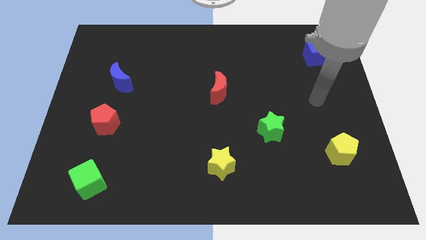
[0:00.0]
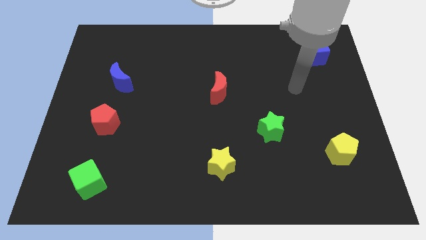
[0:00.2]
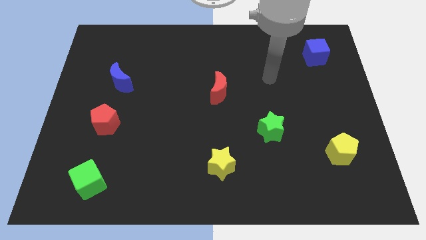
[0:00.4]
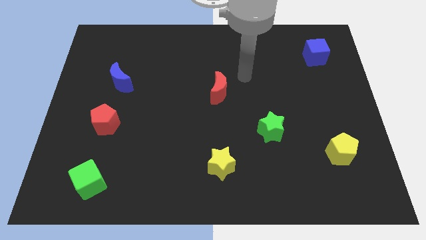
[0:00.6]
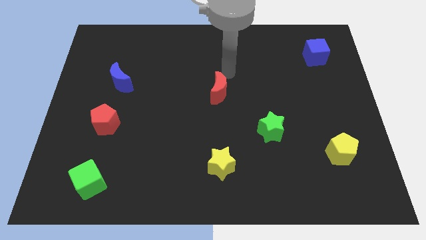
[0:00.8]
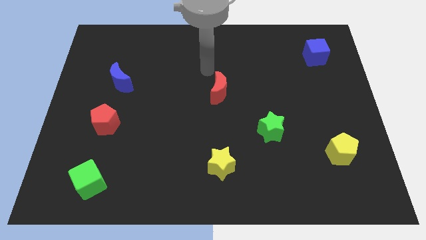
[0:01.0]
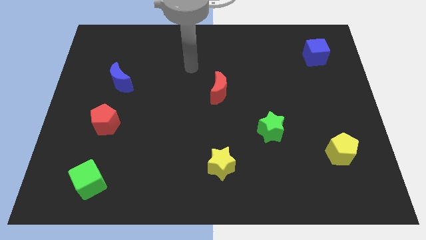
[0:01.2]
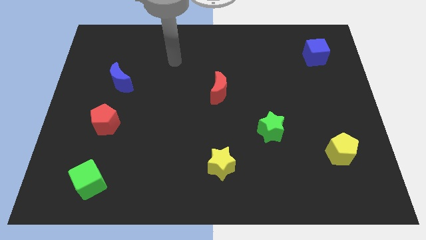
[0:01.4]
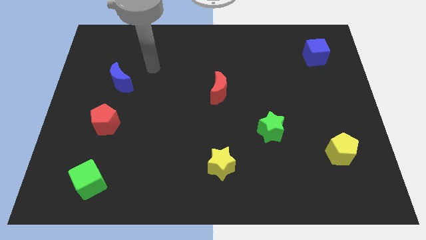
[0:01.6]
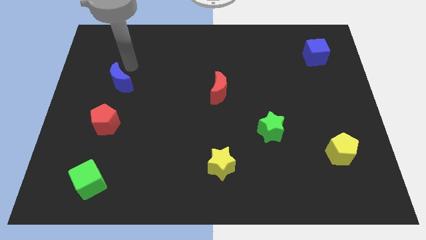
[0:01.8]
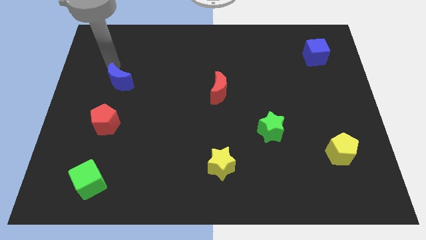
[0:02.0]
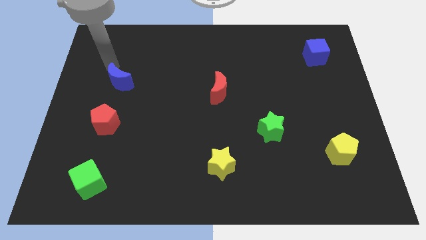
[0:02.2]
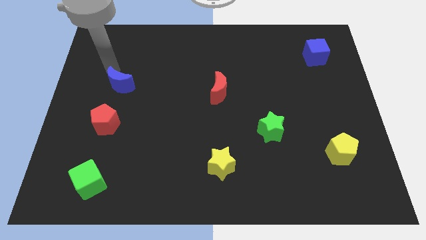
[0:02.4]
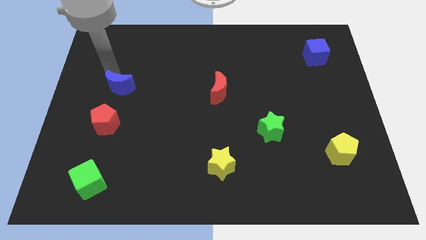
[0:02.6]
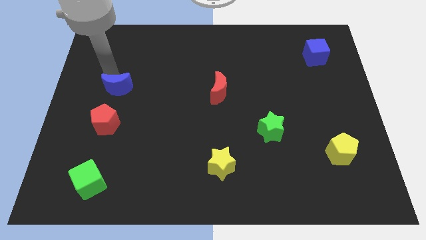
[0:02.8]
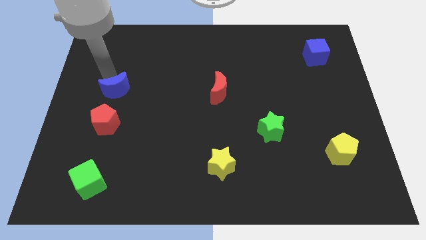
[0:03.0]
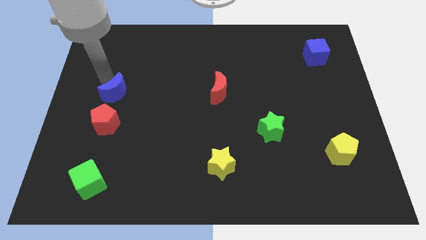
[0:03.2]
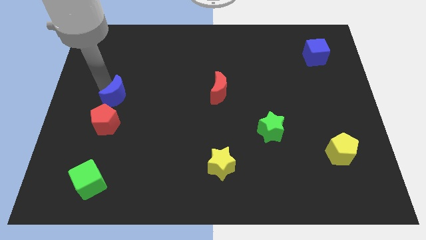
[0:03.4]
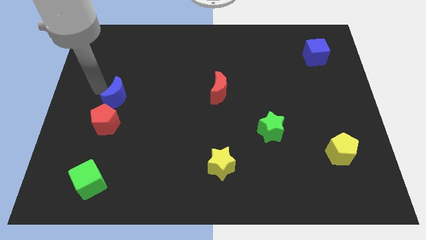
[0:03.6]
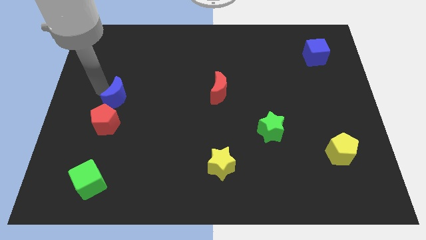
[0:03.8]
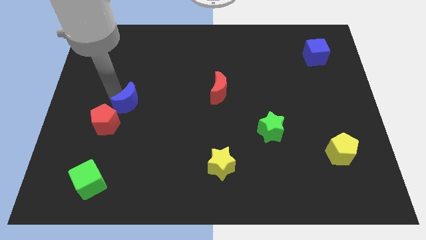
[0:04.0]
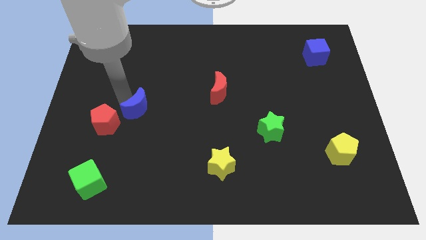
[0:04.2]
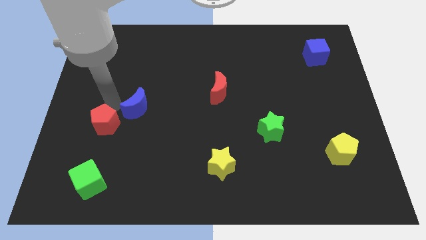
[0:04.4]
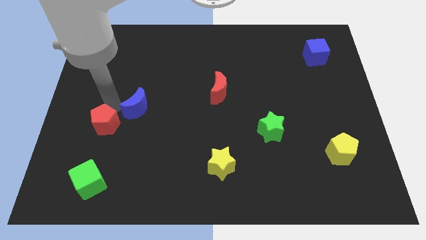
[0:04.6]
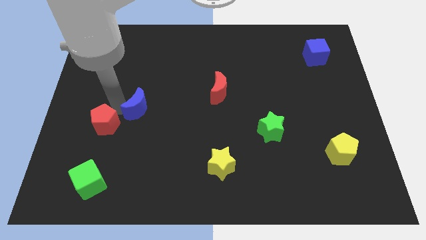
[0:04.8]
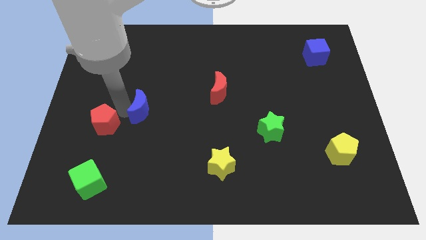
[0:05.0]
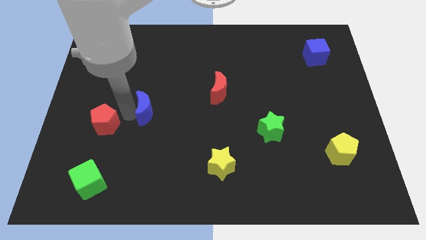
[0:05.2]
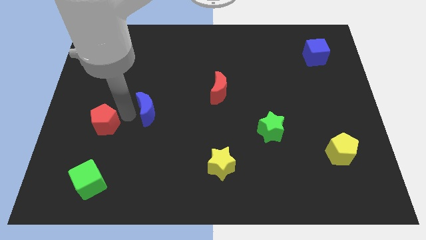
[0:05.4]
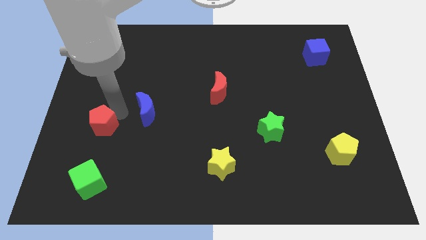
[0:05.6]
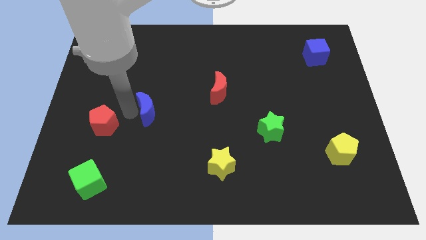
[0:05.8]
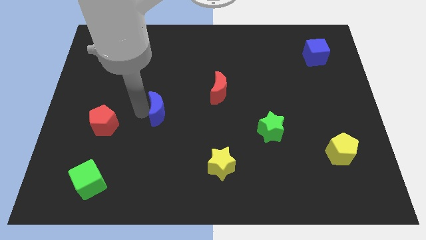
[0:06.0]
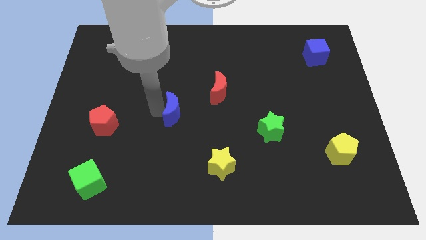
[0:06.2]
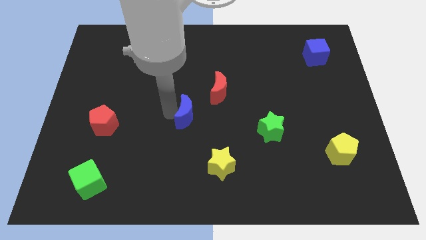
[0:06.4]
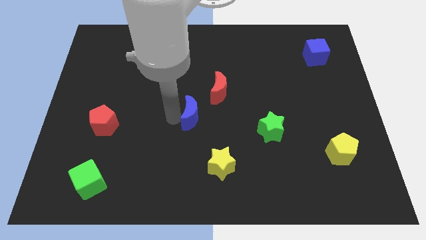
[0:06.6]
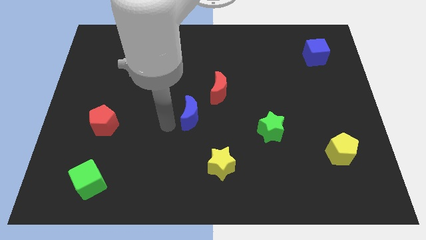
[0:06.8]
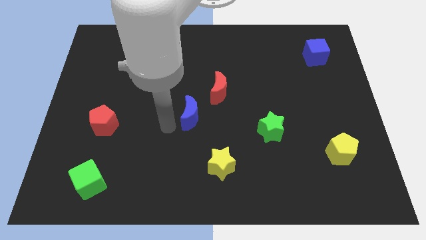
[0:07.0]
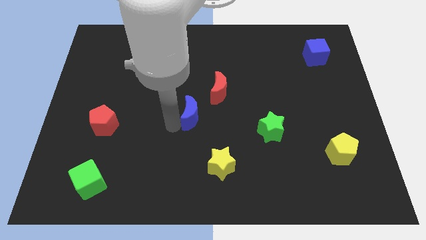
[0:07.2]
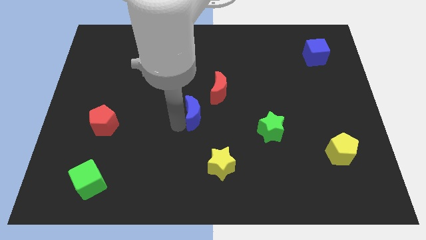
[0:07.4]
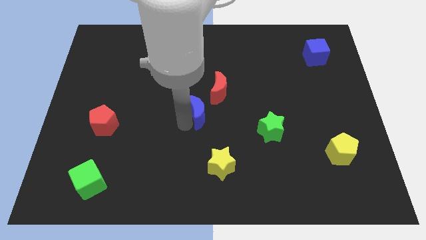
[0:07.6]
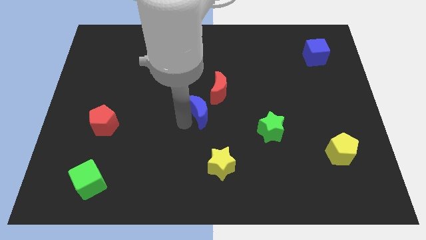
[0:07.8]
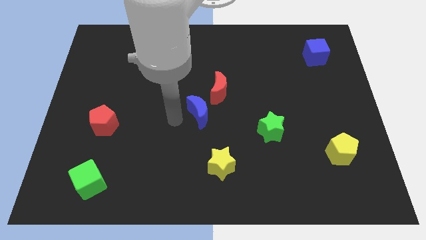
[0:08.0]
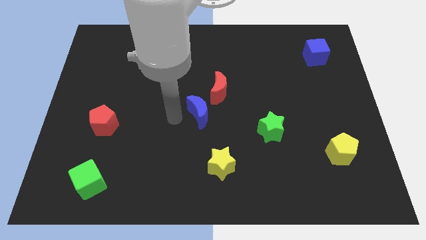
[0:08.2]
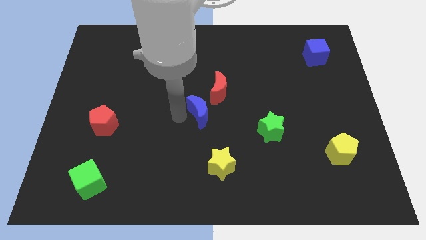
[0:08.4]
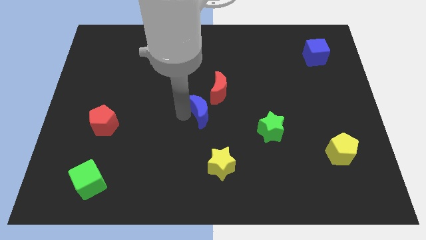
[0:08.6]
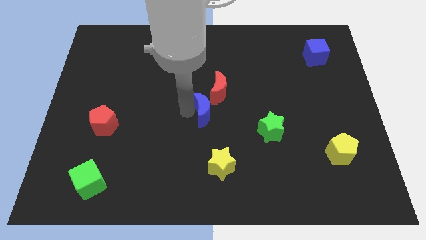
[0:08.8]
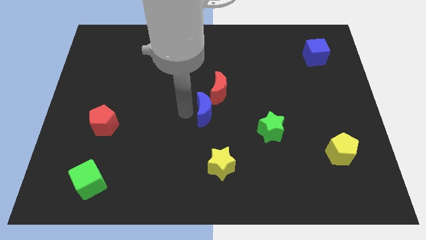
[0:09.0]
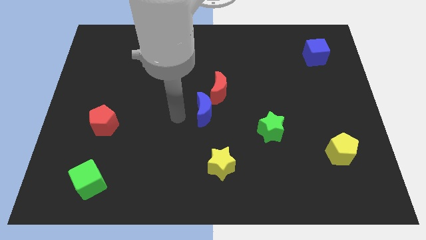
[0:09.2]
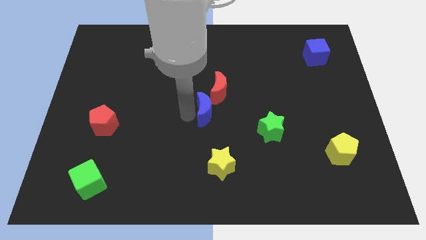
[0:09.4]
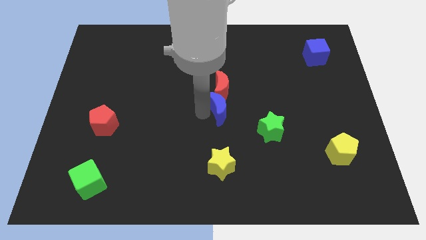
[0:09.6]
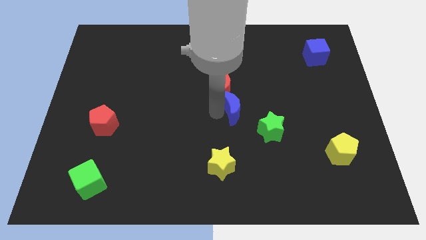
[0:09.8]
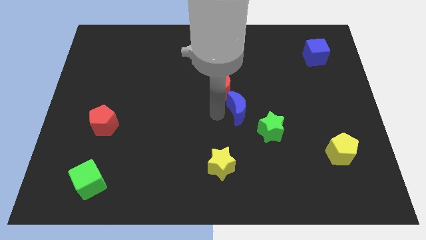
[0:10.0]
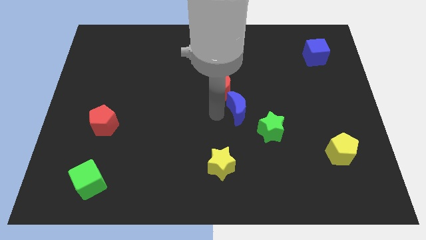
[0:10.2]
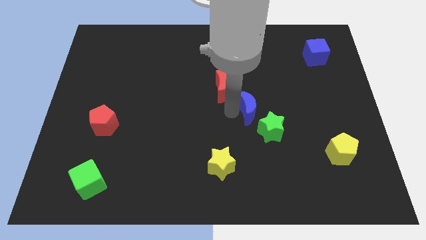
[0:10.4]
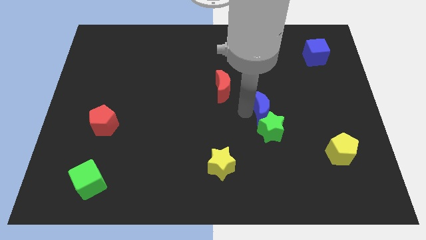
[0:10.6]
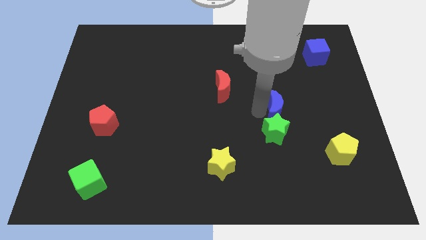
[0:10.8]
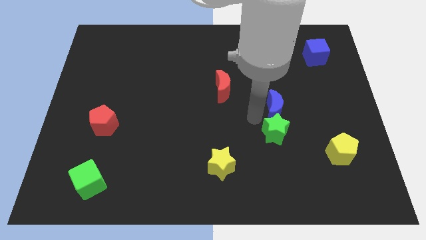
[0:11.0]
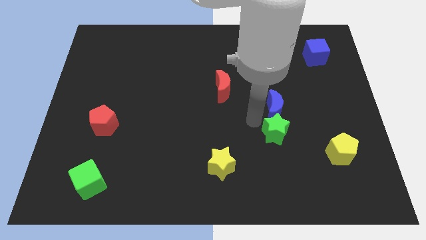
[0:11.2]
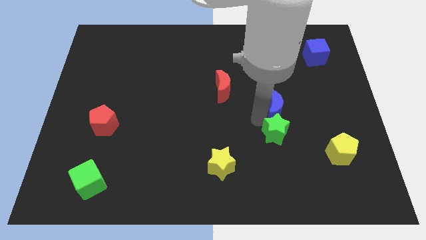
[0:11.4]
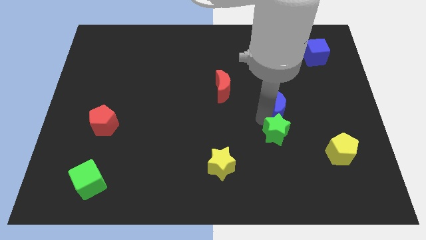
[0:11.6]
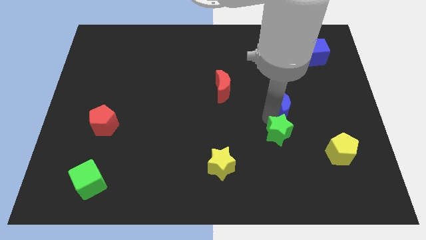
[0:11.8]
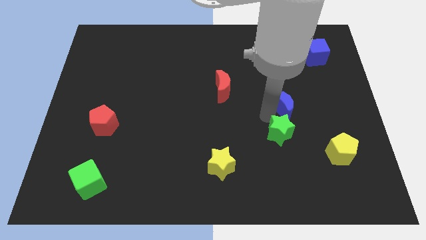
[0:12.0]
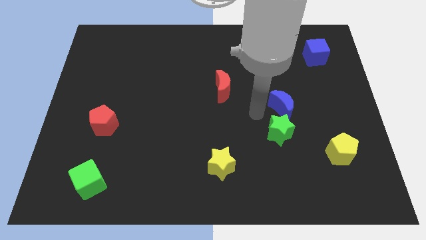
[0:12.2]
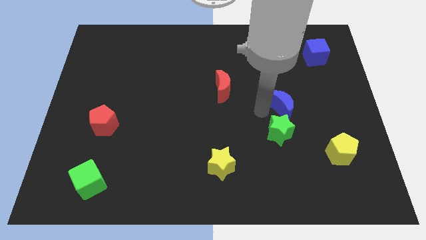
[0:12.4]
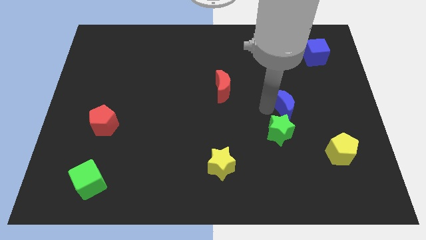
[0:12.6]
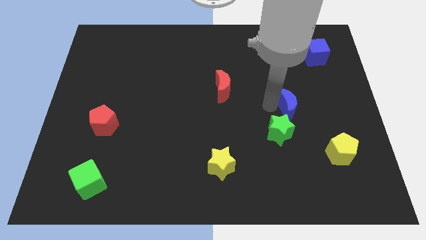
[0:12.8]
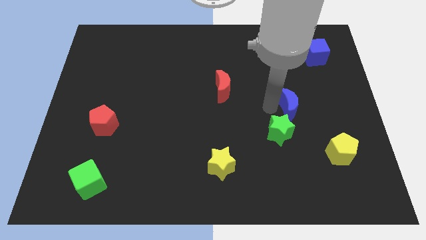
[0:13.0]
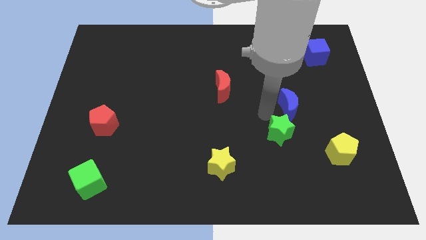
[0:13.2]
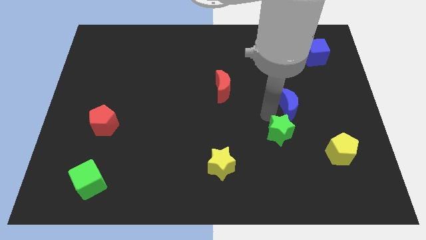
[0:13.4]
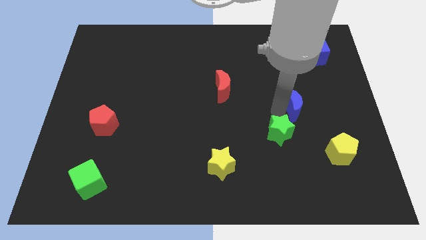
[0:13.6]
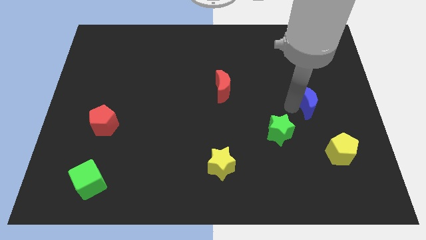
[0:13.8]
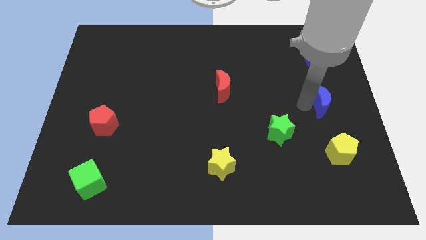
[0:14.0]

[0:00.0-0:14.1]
push the blue moon to the center right
